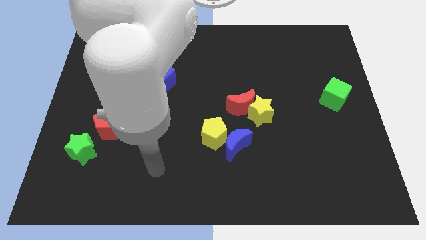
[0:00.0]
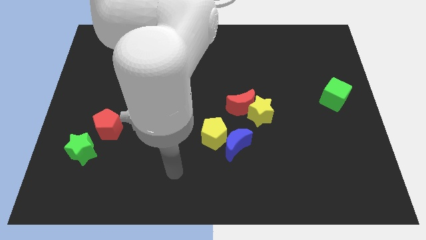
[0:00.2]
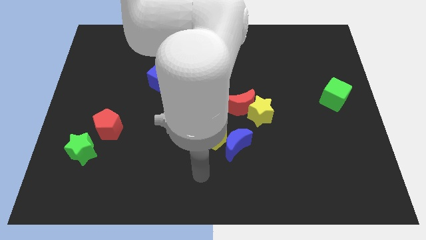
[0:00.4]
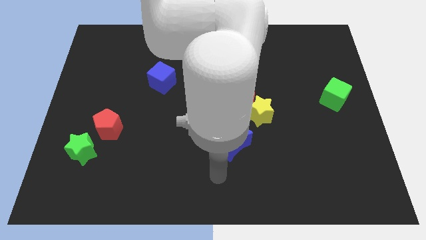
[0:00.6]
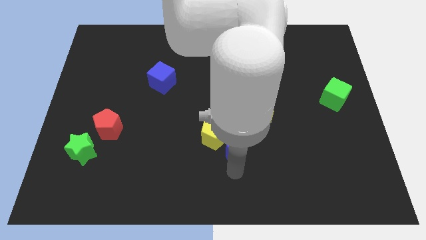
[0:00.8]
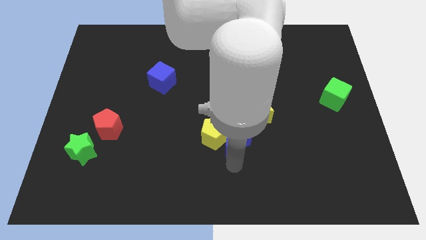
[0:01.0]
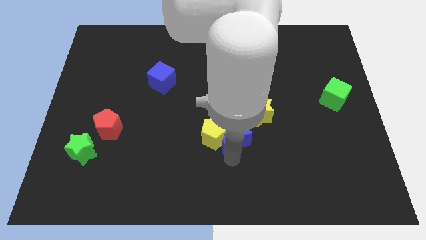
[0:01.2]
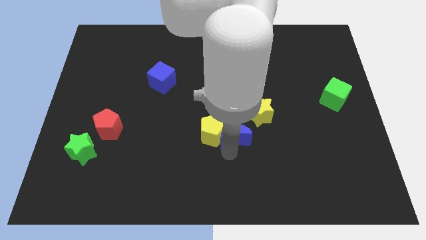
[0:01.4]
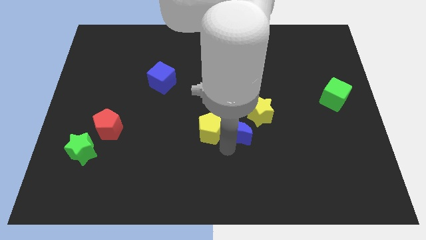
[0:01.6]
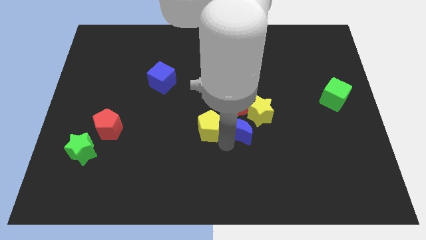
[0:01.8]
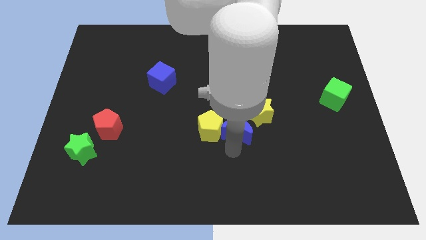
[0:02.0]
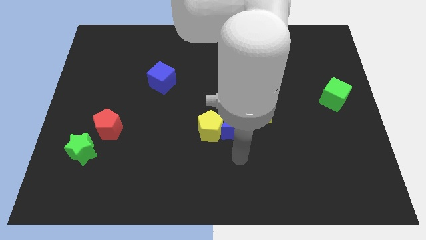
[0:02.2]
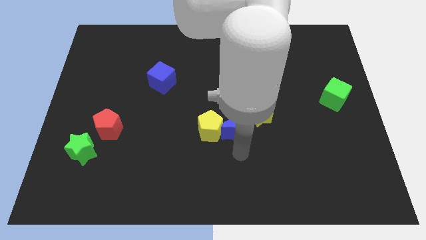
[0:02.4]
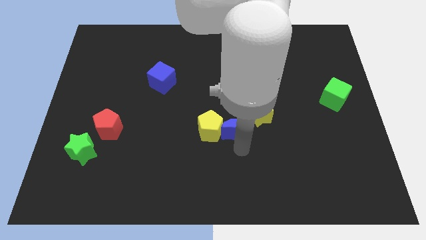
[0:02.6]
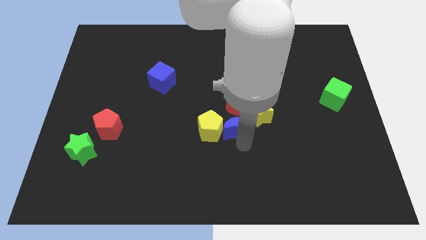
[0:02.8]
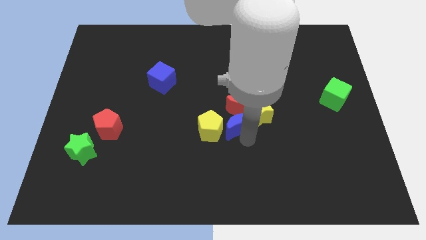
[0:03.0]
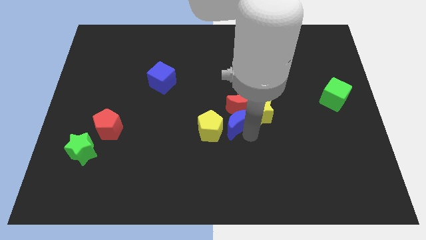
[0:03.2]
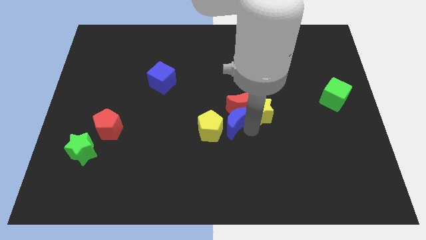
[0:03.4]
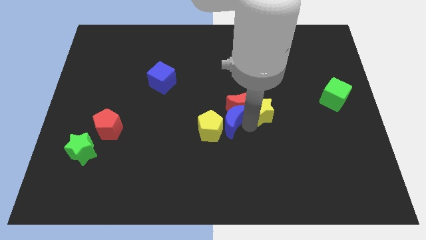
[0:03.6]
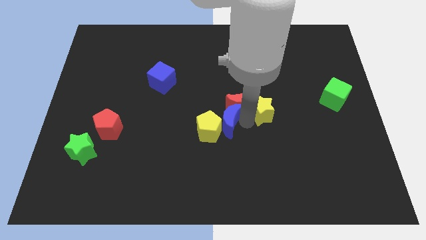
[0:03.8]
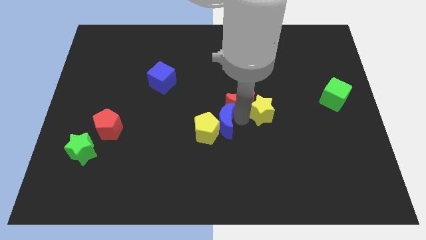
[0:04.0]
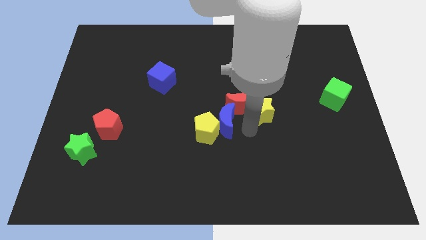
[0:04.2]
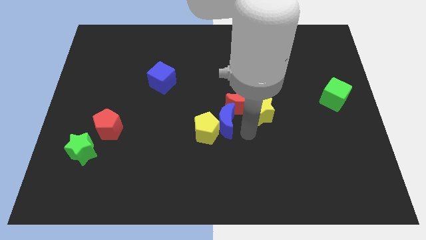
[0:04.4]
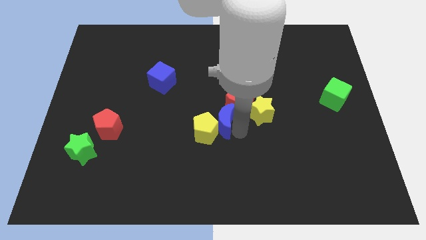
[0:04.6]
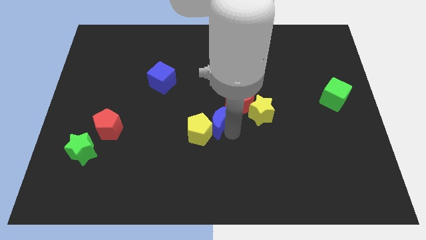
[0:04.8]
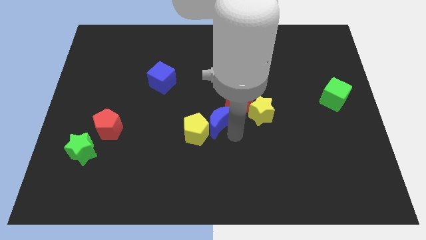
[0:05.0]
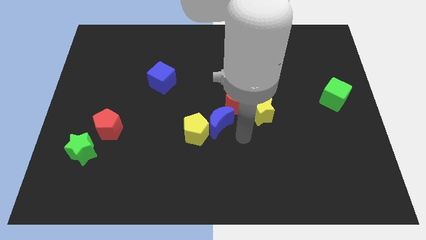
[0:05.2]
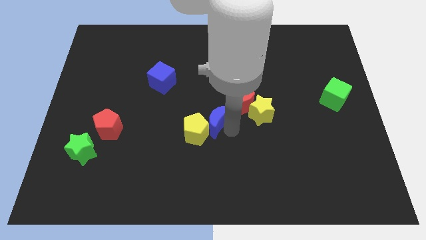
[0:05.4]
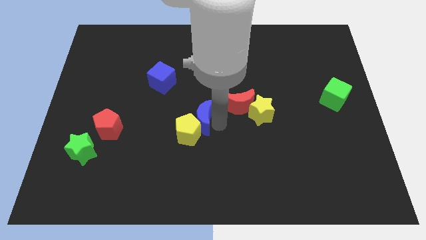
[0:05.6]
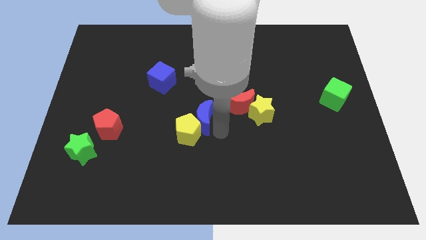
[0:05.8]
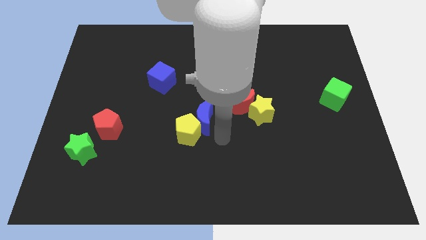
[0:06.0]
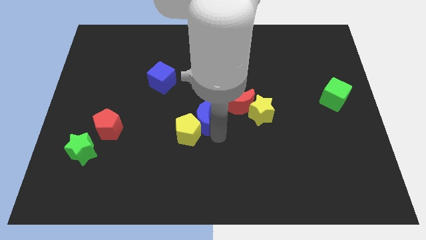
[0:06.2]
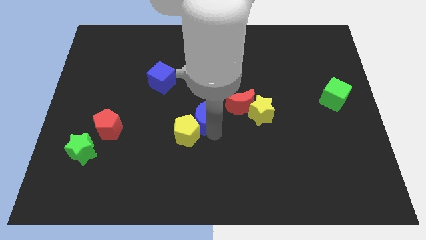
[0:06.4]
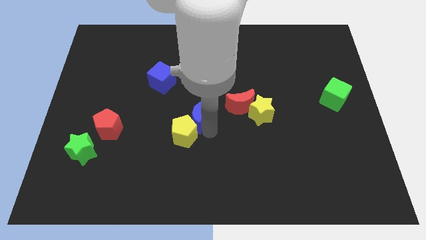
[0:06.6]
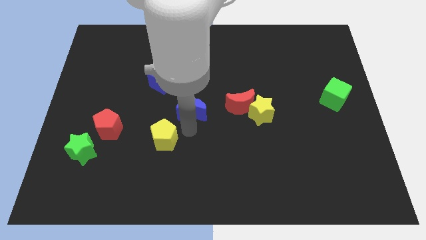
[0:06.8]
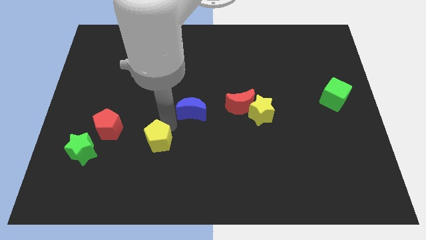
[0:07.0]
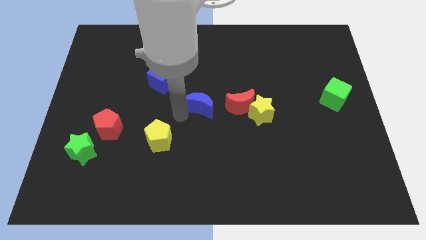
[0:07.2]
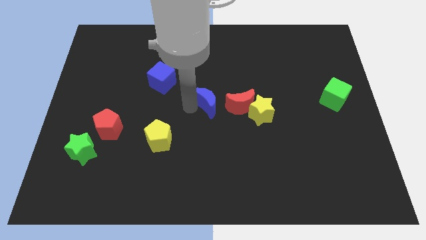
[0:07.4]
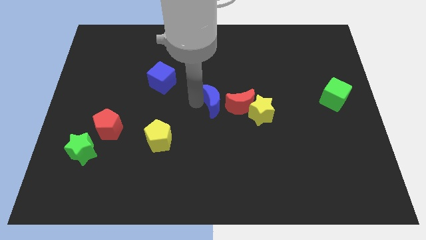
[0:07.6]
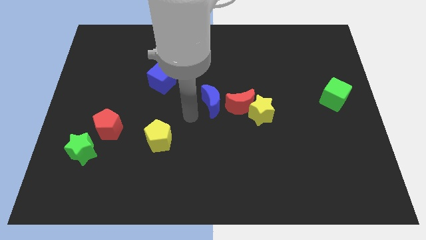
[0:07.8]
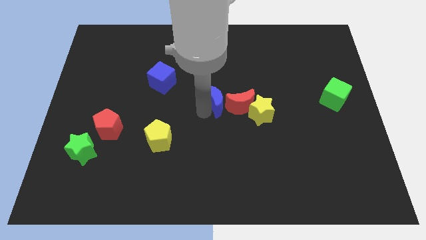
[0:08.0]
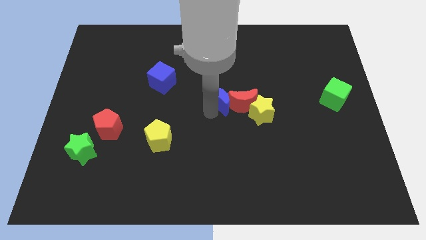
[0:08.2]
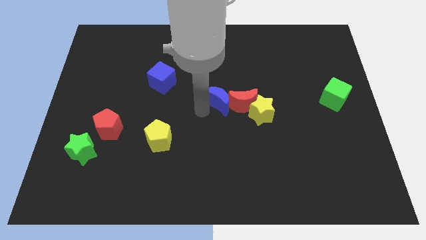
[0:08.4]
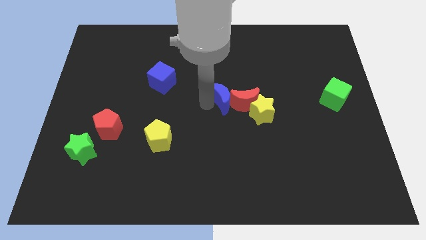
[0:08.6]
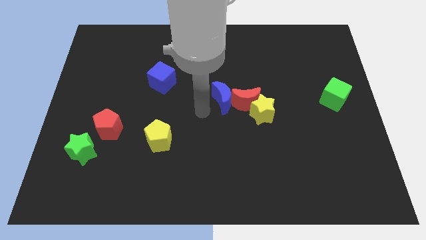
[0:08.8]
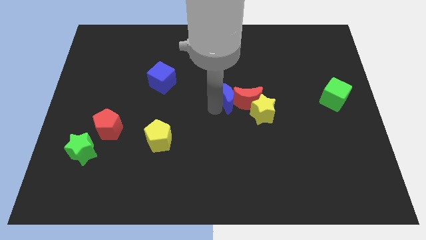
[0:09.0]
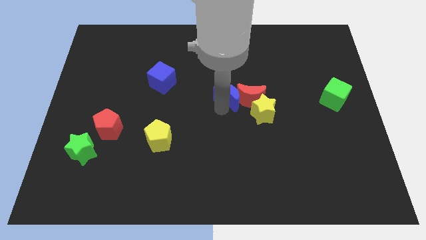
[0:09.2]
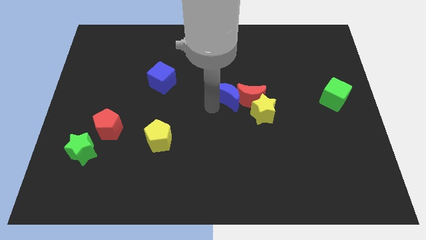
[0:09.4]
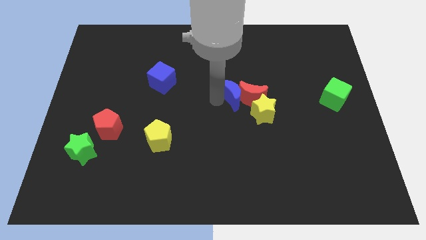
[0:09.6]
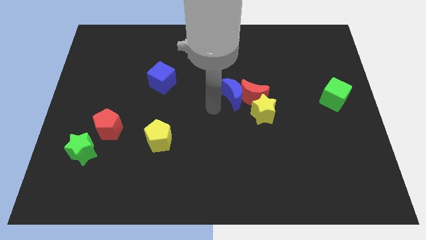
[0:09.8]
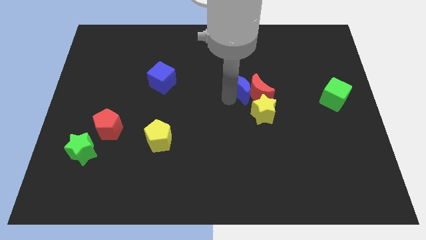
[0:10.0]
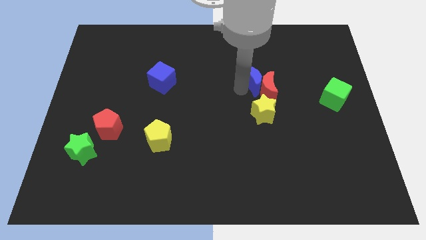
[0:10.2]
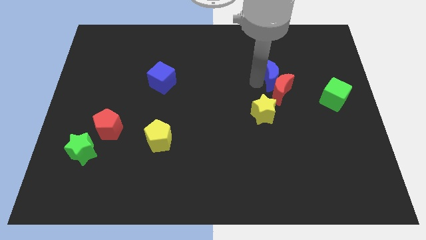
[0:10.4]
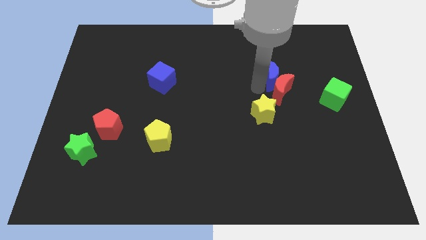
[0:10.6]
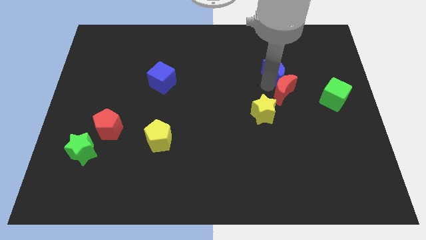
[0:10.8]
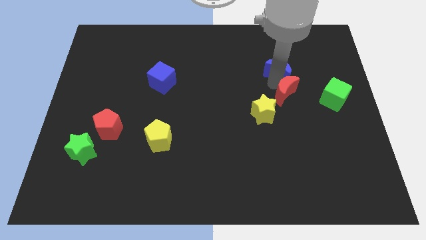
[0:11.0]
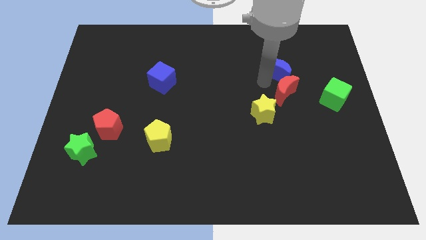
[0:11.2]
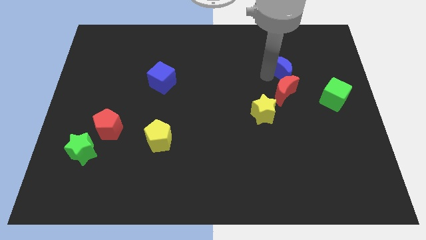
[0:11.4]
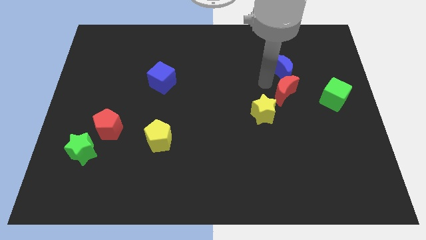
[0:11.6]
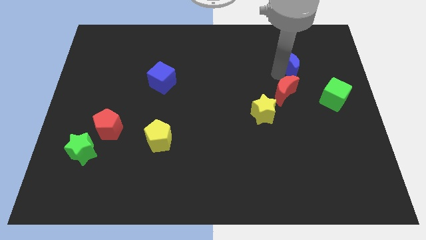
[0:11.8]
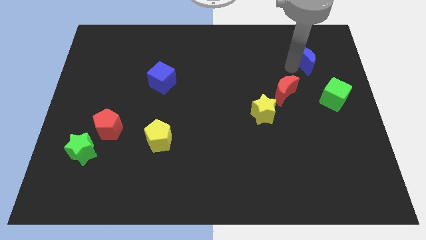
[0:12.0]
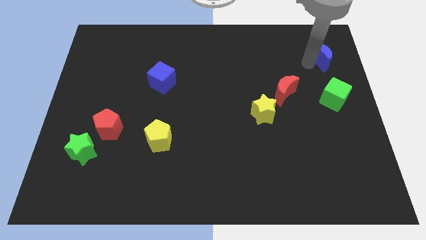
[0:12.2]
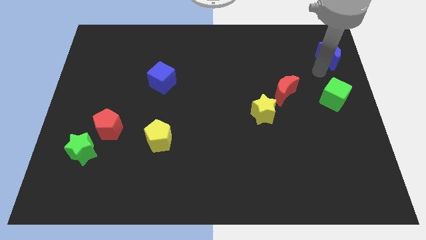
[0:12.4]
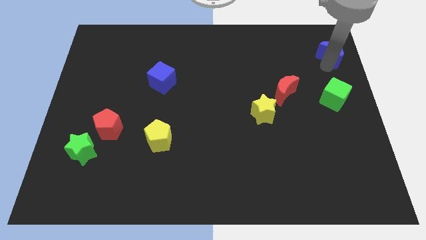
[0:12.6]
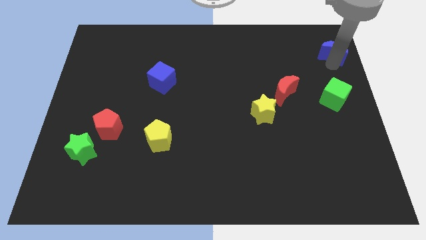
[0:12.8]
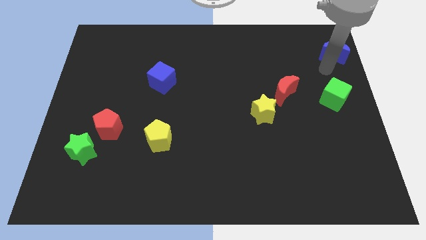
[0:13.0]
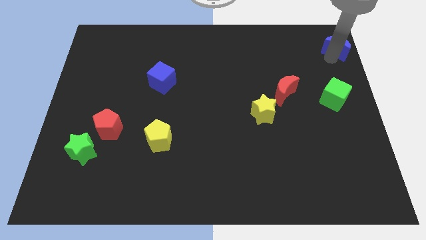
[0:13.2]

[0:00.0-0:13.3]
put the blue moon to the upper right corner

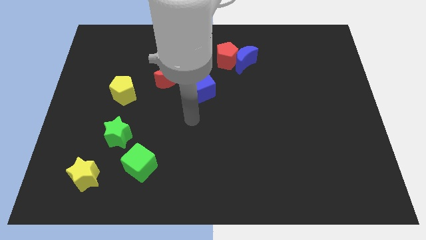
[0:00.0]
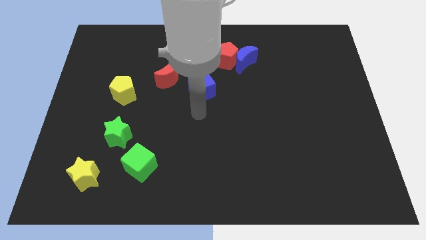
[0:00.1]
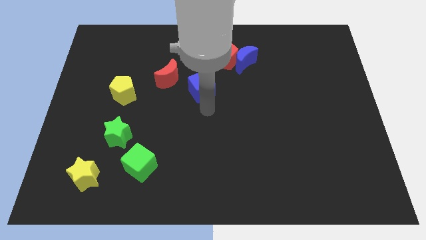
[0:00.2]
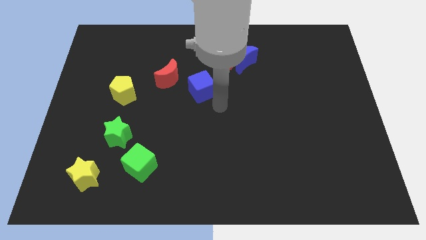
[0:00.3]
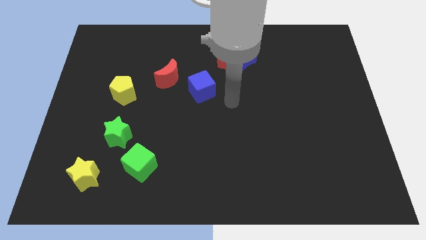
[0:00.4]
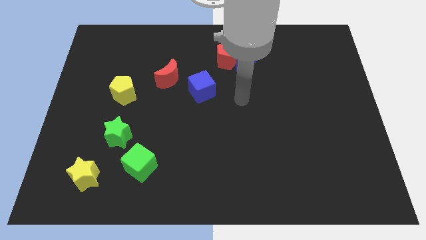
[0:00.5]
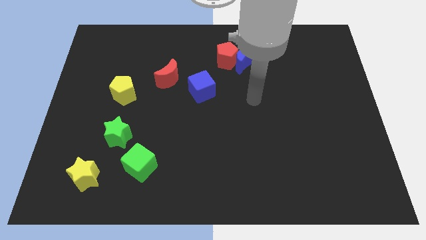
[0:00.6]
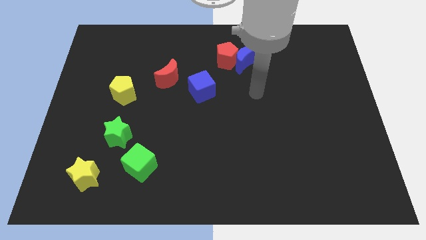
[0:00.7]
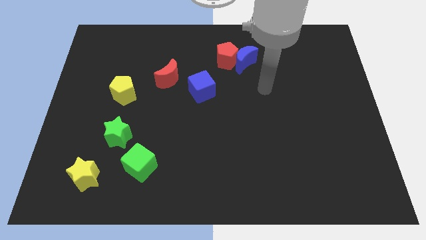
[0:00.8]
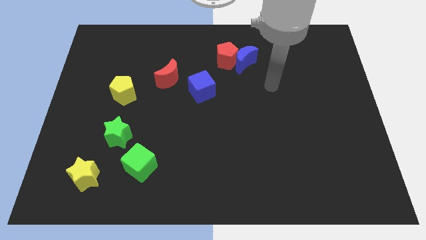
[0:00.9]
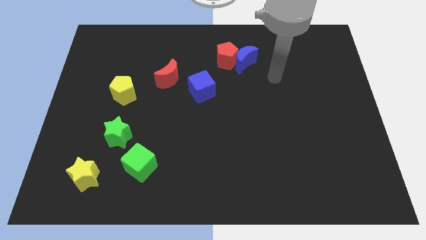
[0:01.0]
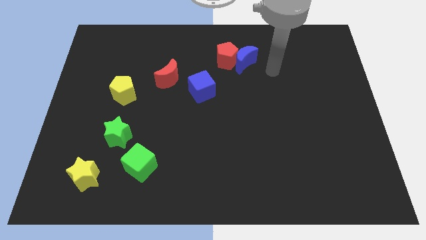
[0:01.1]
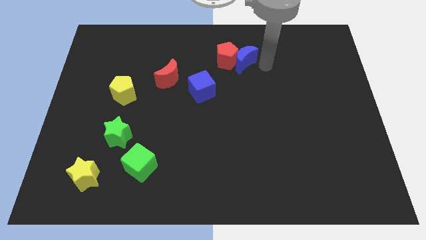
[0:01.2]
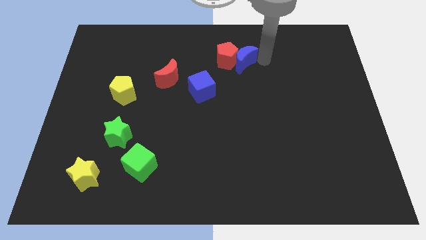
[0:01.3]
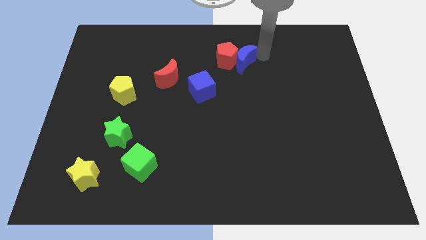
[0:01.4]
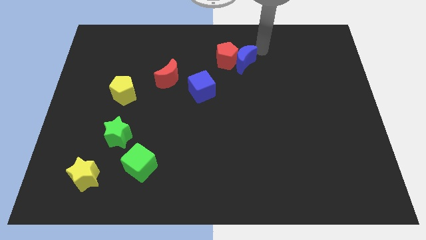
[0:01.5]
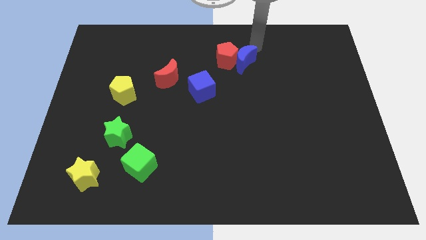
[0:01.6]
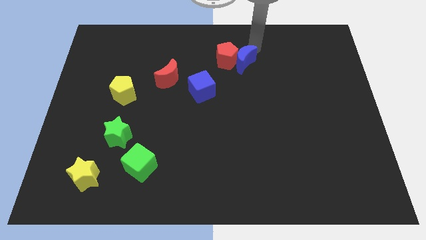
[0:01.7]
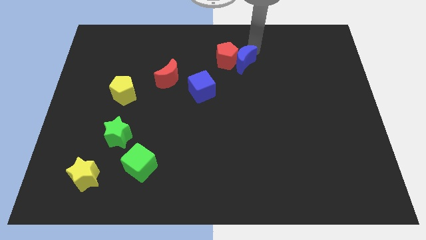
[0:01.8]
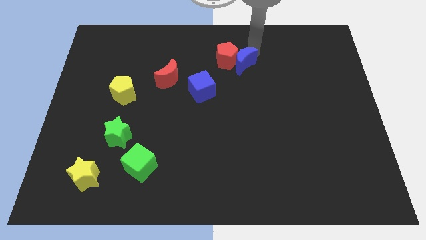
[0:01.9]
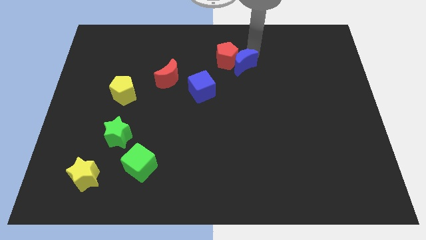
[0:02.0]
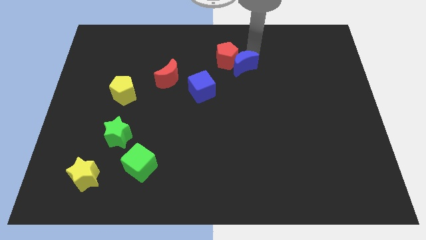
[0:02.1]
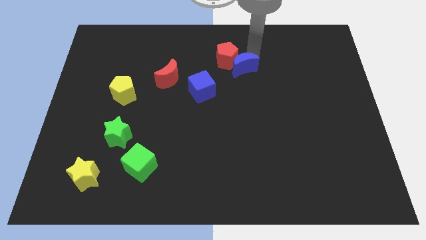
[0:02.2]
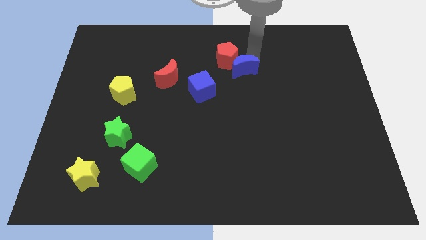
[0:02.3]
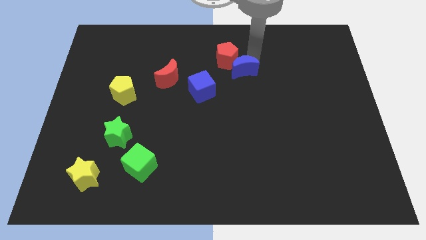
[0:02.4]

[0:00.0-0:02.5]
push the blue moon to the middle
